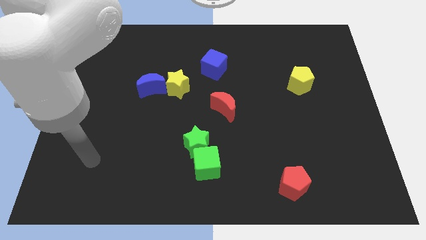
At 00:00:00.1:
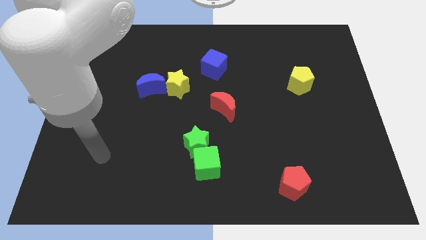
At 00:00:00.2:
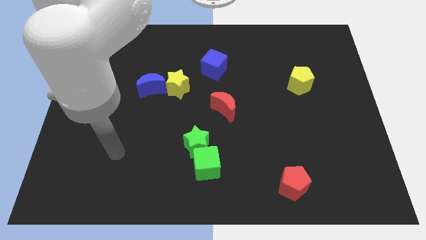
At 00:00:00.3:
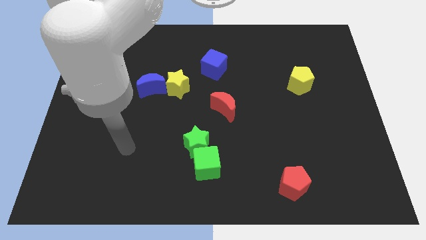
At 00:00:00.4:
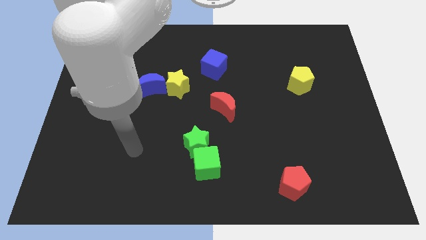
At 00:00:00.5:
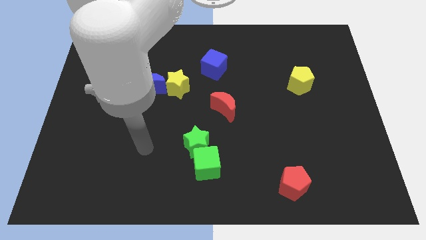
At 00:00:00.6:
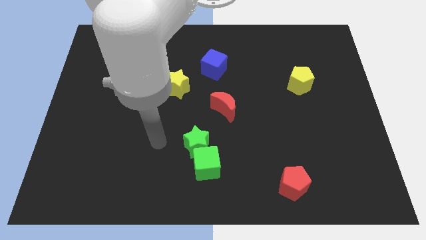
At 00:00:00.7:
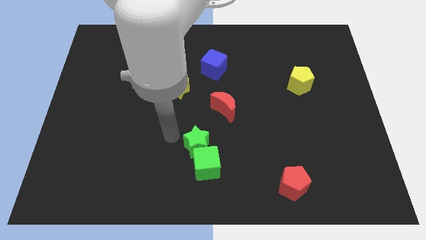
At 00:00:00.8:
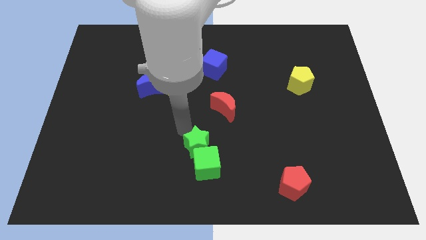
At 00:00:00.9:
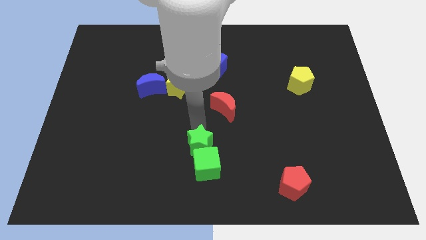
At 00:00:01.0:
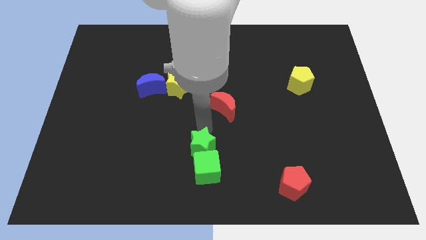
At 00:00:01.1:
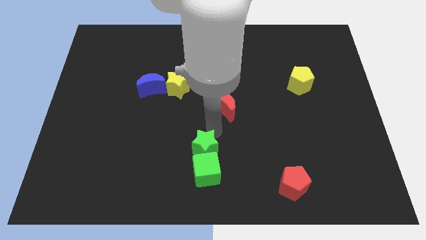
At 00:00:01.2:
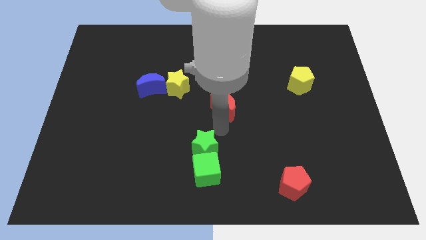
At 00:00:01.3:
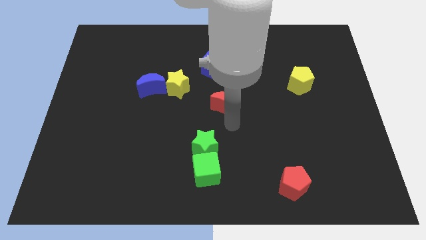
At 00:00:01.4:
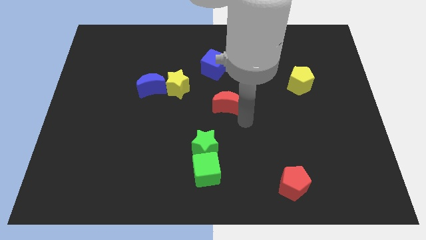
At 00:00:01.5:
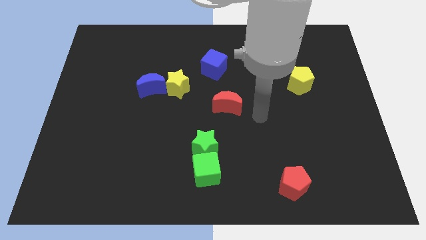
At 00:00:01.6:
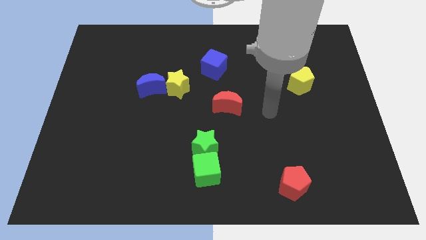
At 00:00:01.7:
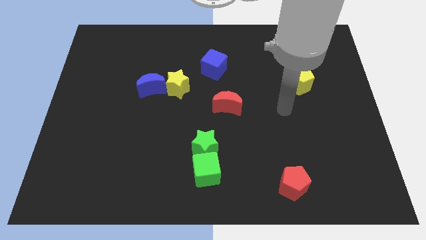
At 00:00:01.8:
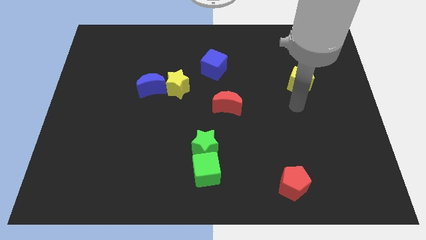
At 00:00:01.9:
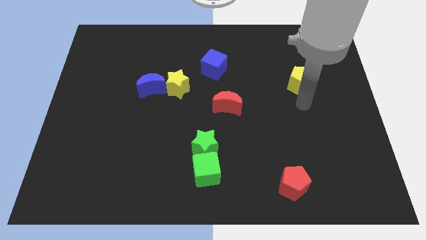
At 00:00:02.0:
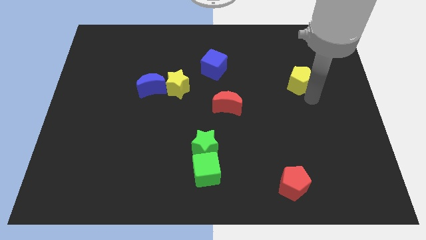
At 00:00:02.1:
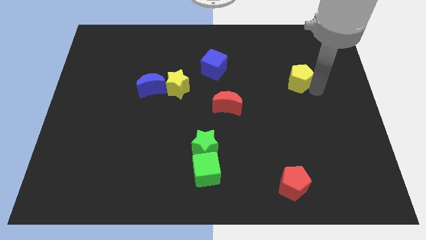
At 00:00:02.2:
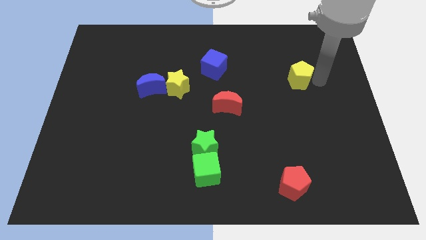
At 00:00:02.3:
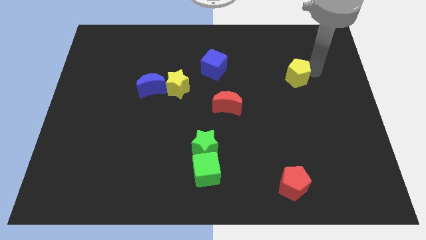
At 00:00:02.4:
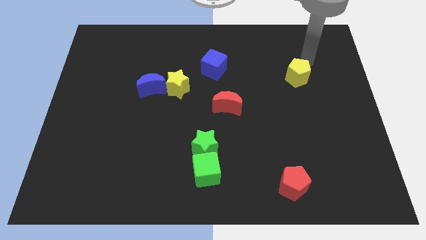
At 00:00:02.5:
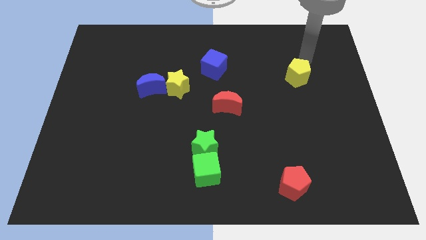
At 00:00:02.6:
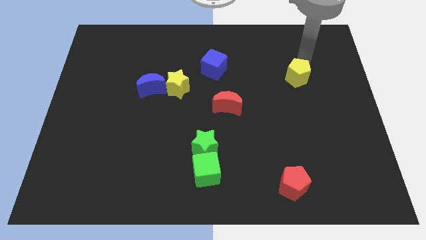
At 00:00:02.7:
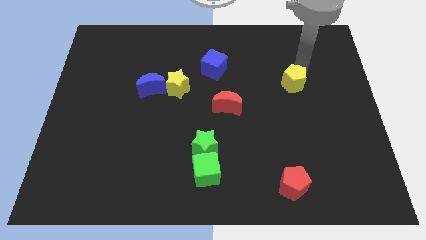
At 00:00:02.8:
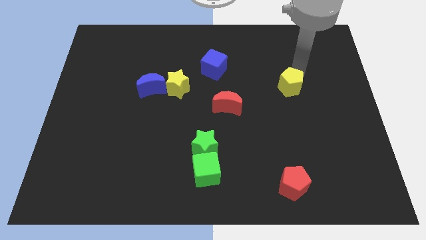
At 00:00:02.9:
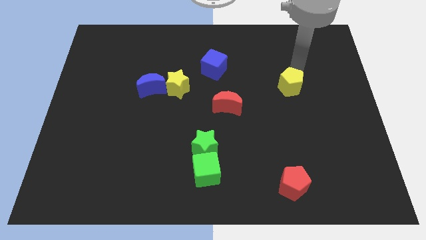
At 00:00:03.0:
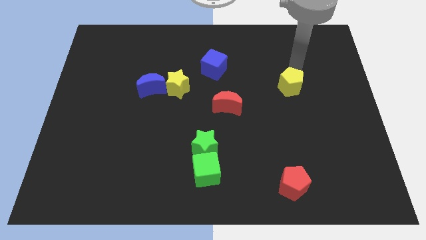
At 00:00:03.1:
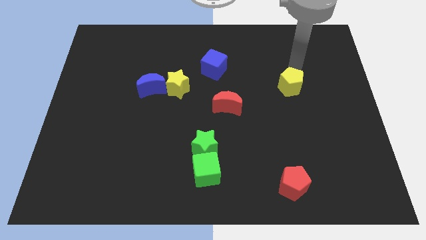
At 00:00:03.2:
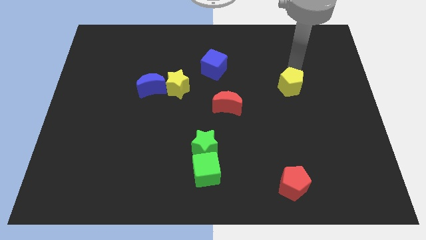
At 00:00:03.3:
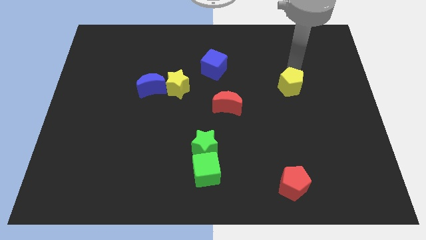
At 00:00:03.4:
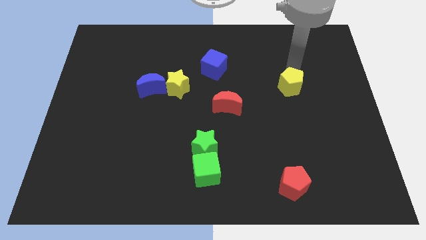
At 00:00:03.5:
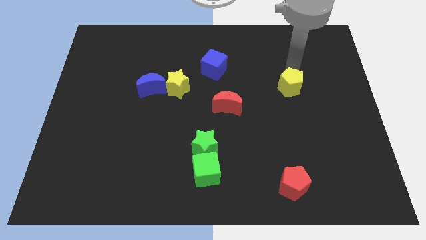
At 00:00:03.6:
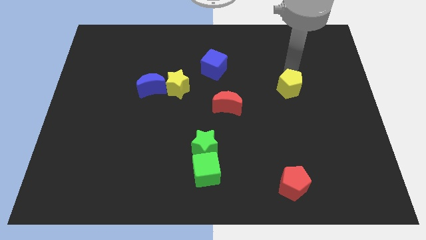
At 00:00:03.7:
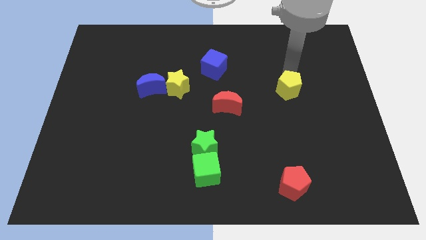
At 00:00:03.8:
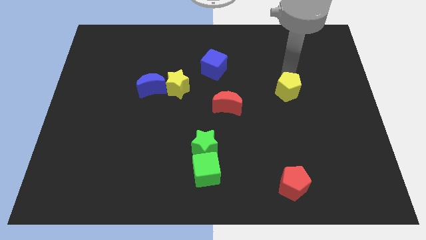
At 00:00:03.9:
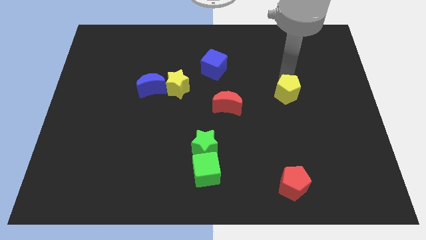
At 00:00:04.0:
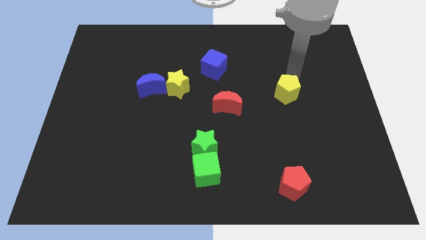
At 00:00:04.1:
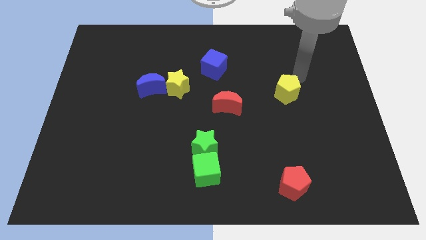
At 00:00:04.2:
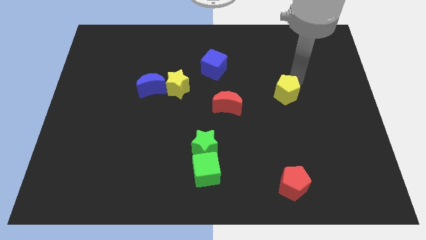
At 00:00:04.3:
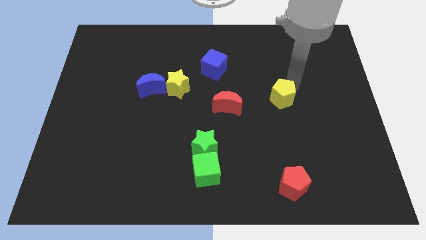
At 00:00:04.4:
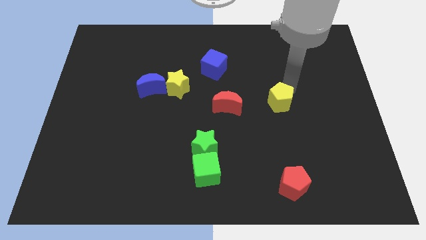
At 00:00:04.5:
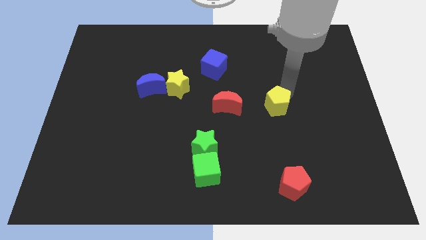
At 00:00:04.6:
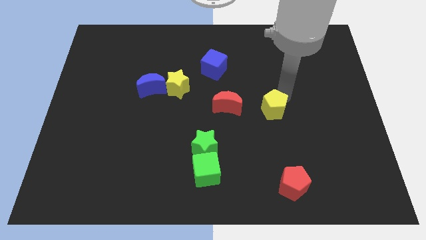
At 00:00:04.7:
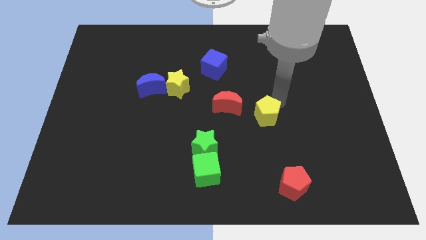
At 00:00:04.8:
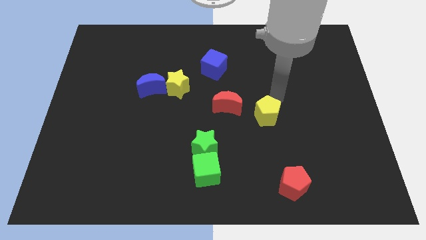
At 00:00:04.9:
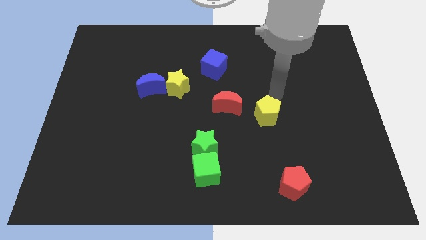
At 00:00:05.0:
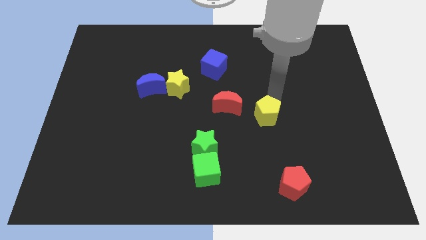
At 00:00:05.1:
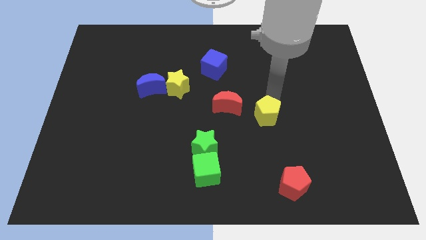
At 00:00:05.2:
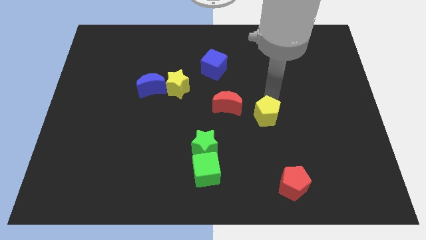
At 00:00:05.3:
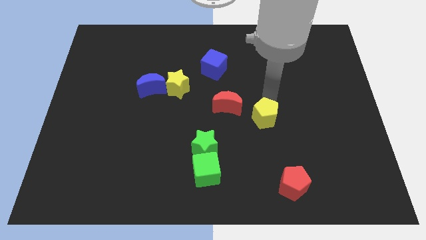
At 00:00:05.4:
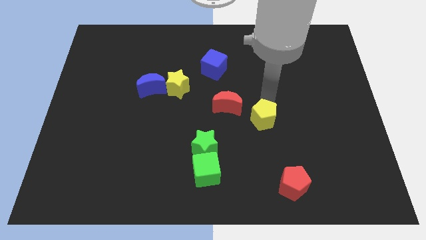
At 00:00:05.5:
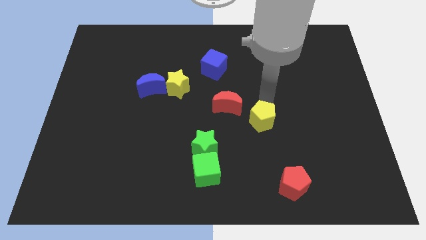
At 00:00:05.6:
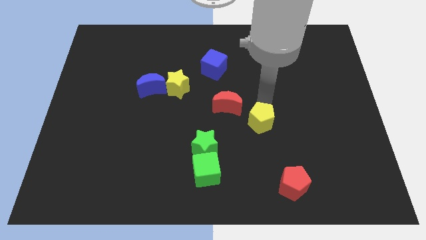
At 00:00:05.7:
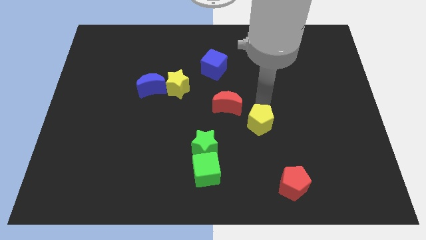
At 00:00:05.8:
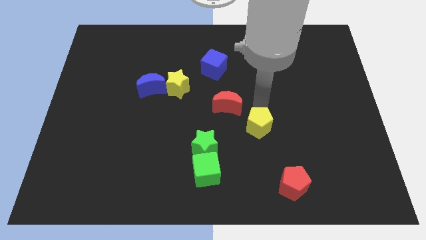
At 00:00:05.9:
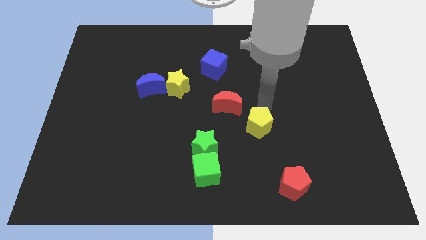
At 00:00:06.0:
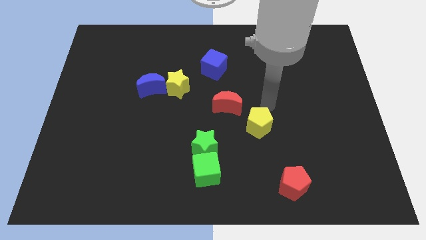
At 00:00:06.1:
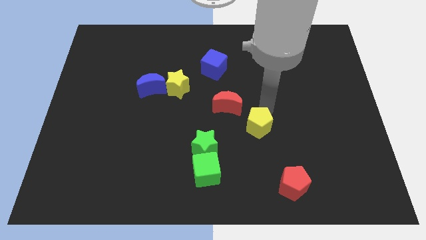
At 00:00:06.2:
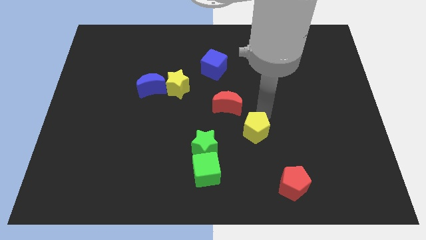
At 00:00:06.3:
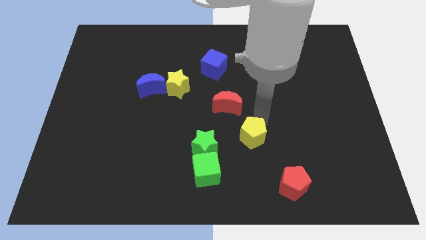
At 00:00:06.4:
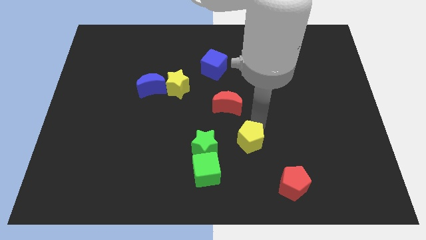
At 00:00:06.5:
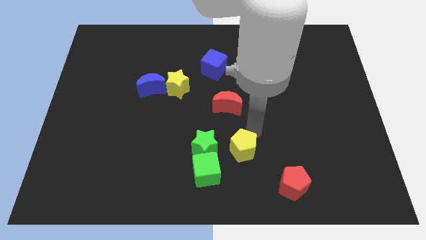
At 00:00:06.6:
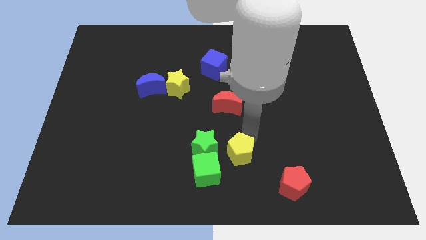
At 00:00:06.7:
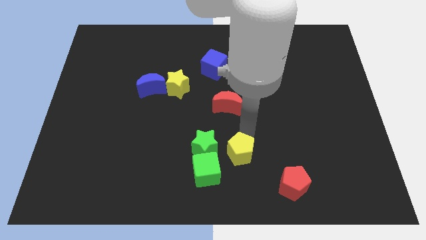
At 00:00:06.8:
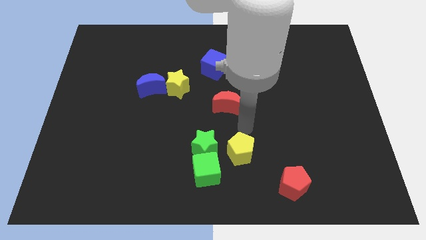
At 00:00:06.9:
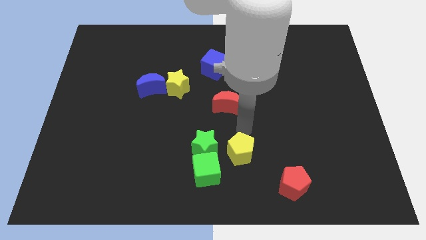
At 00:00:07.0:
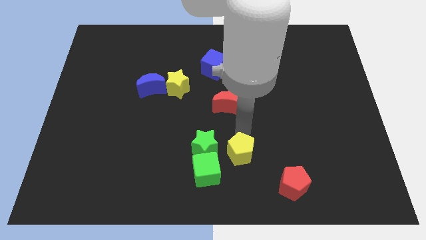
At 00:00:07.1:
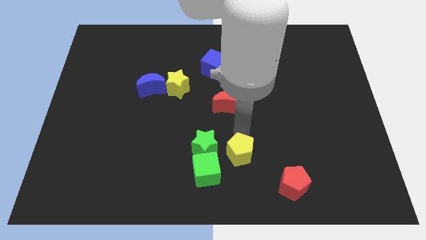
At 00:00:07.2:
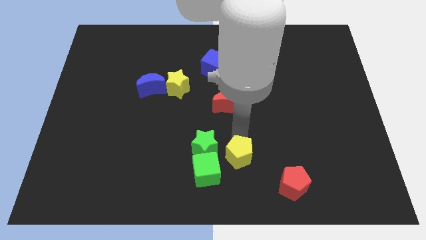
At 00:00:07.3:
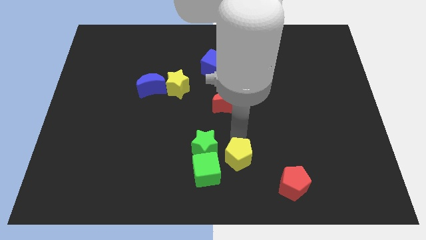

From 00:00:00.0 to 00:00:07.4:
move the yellow pentagon to the bottom
